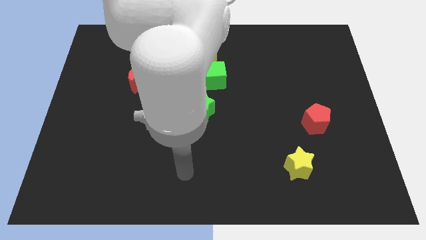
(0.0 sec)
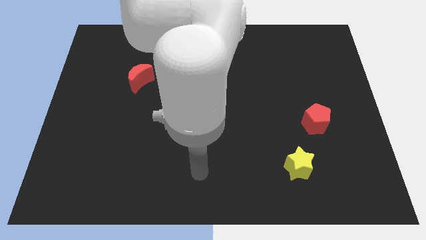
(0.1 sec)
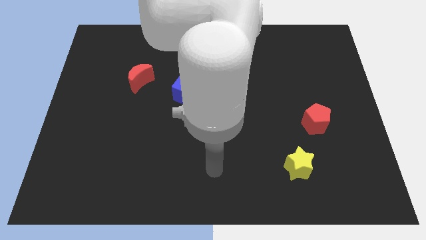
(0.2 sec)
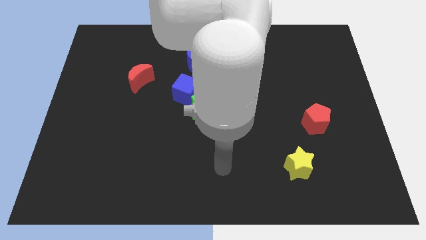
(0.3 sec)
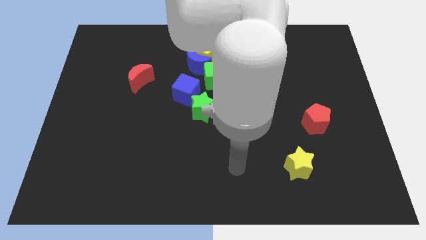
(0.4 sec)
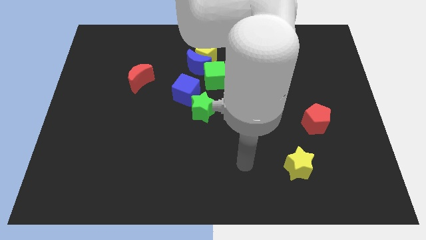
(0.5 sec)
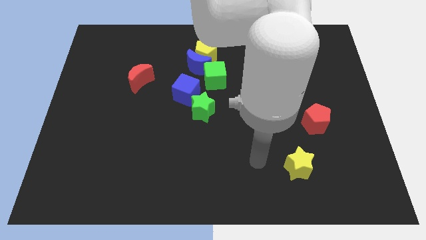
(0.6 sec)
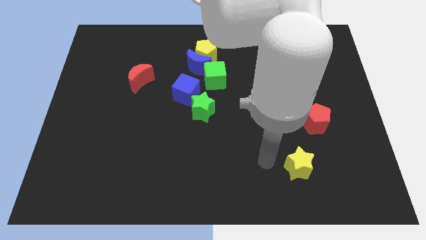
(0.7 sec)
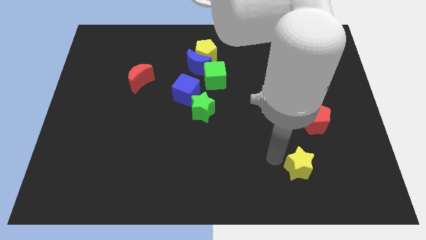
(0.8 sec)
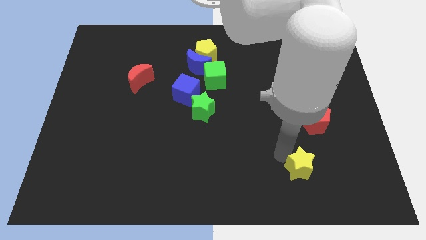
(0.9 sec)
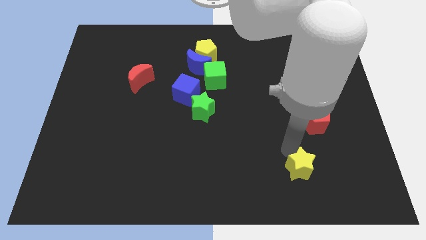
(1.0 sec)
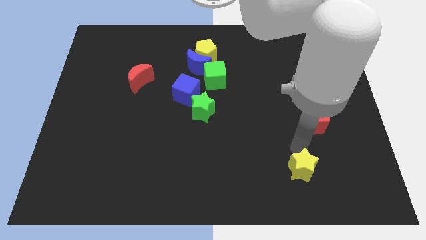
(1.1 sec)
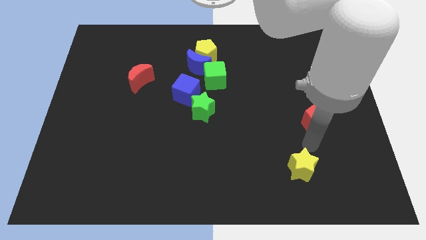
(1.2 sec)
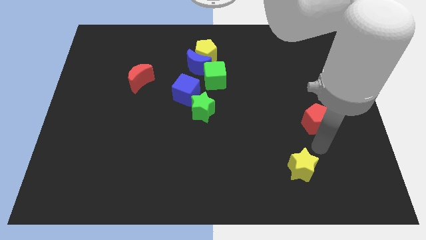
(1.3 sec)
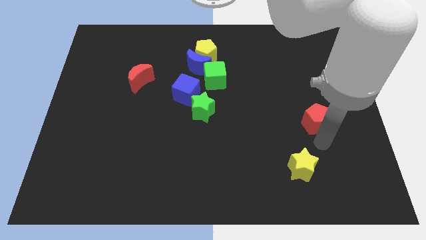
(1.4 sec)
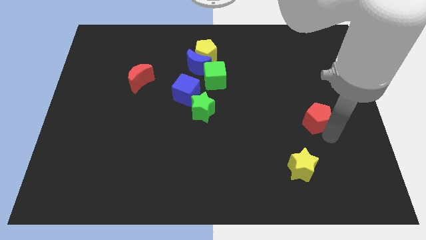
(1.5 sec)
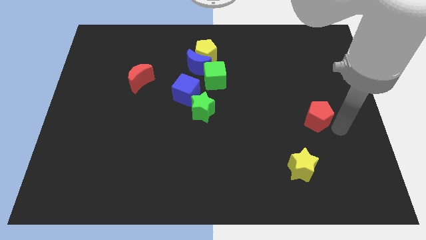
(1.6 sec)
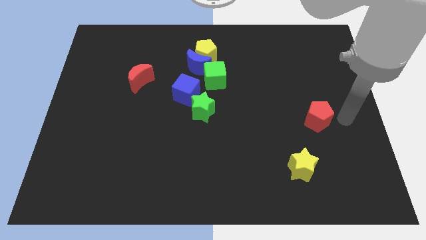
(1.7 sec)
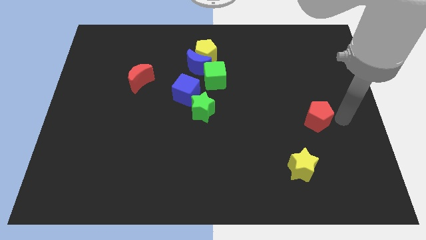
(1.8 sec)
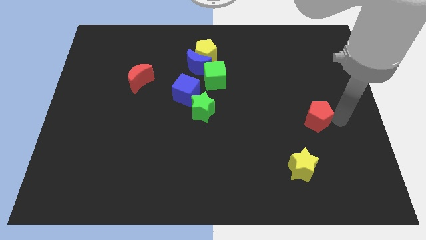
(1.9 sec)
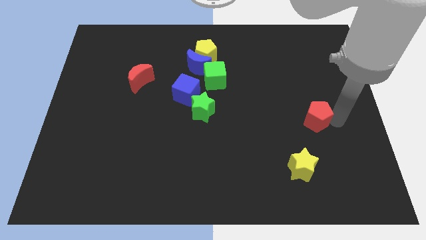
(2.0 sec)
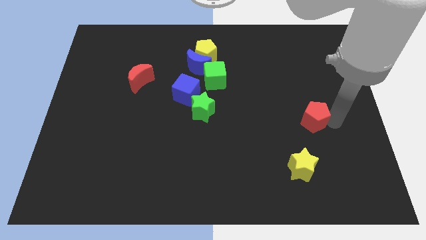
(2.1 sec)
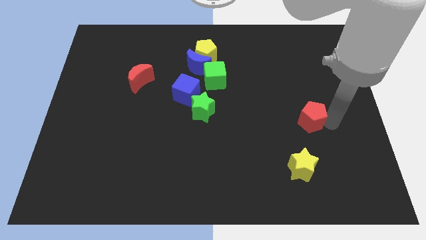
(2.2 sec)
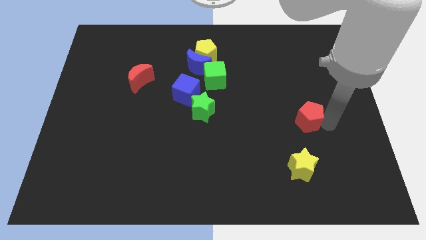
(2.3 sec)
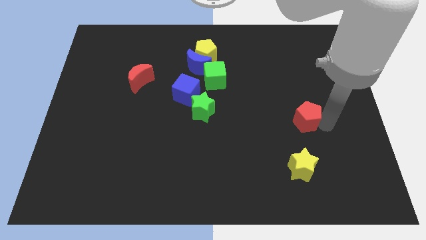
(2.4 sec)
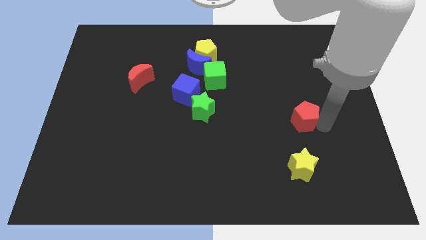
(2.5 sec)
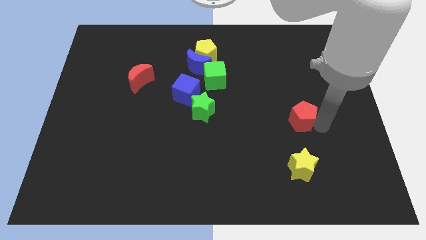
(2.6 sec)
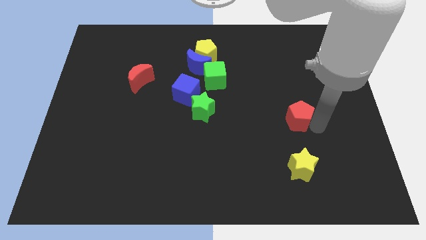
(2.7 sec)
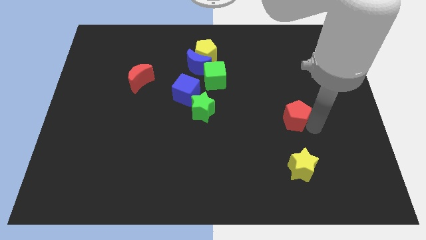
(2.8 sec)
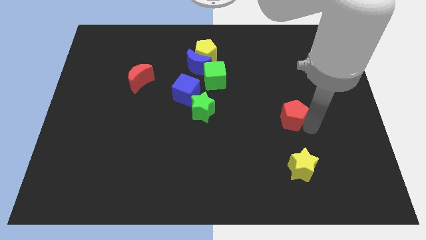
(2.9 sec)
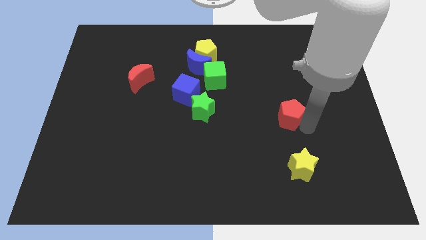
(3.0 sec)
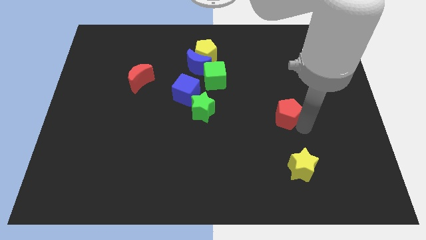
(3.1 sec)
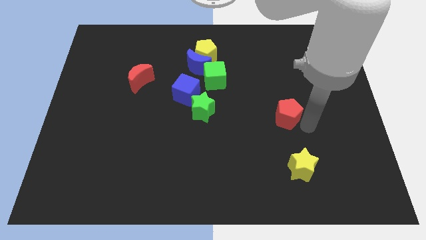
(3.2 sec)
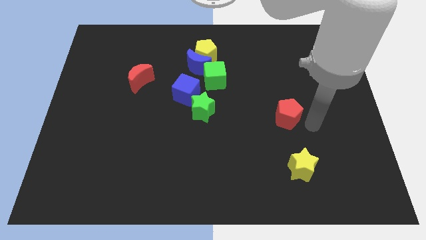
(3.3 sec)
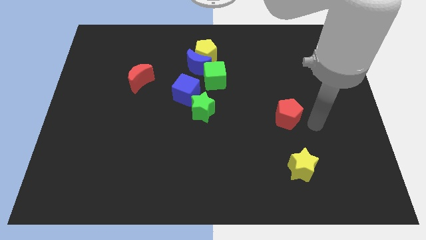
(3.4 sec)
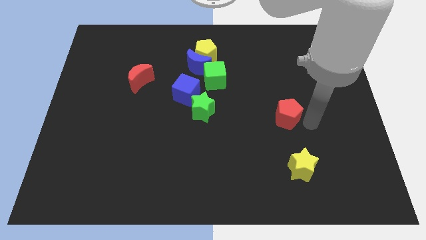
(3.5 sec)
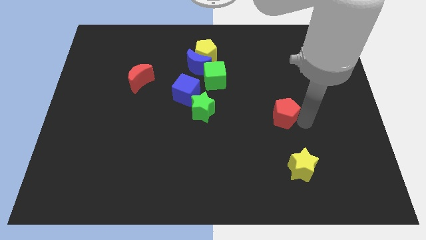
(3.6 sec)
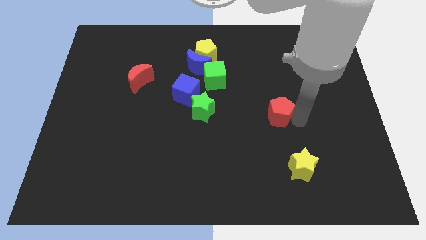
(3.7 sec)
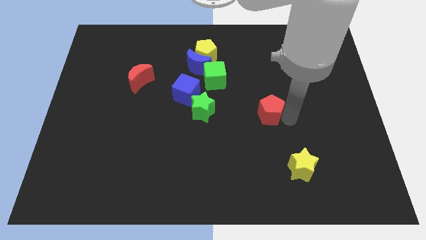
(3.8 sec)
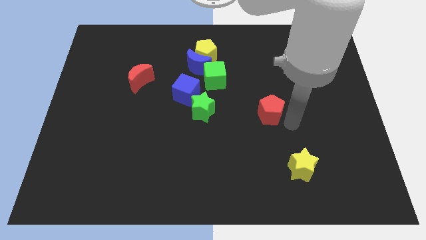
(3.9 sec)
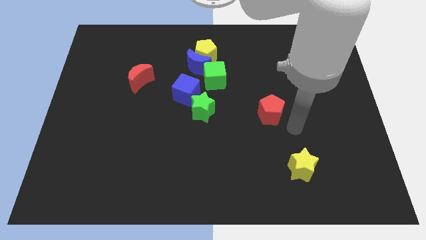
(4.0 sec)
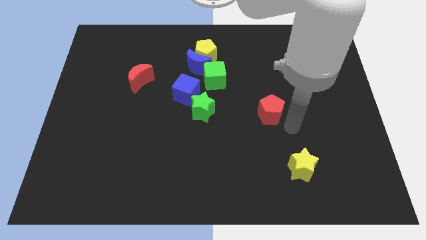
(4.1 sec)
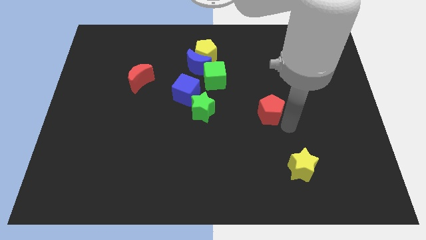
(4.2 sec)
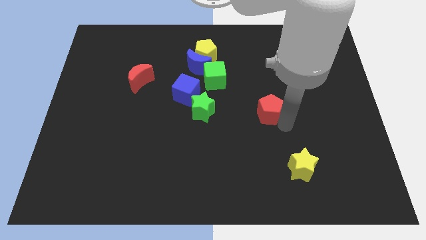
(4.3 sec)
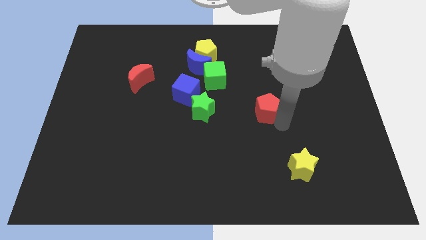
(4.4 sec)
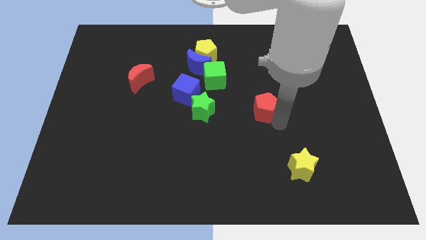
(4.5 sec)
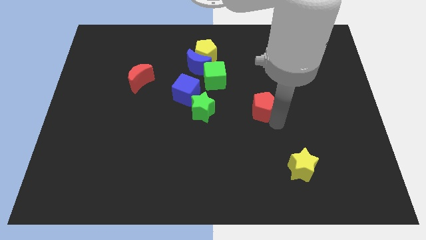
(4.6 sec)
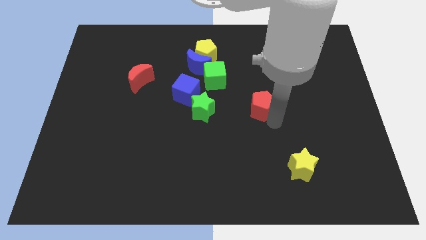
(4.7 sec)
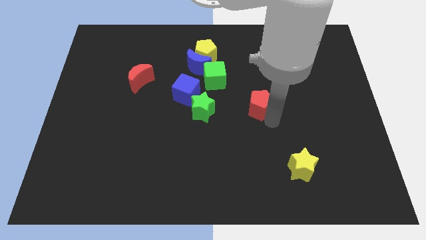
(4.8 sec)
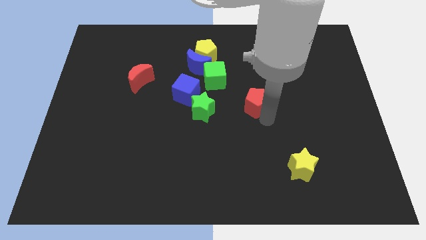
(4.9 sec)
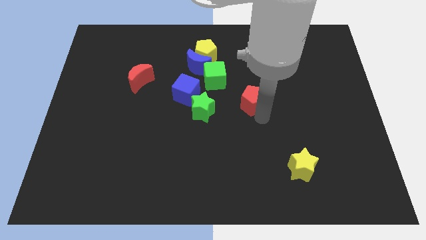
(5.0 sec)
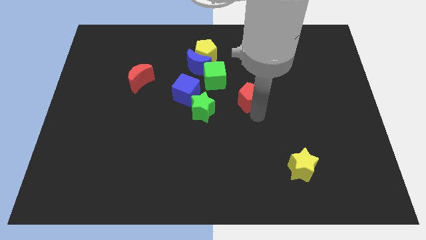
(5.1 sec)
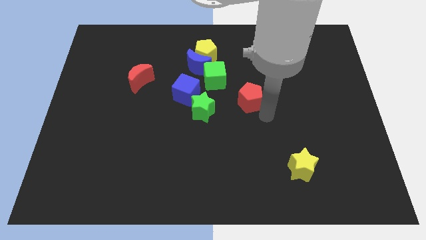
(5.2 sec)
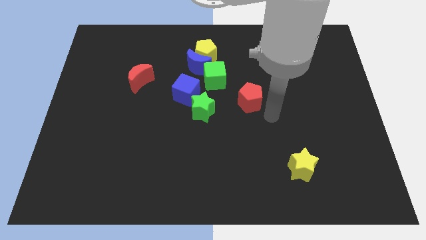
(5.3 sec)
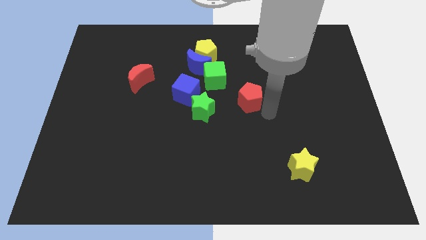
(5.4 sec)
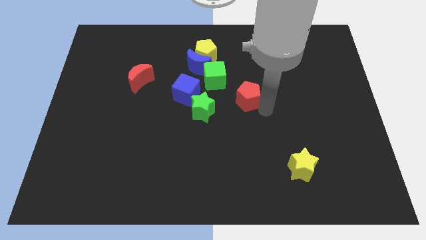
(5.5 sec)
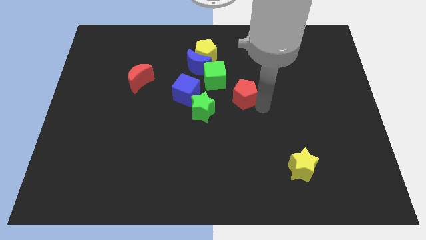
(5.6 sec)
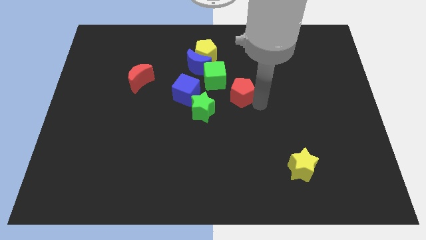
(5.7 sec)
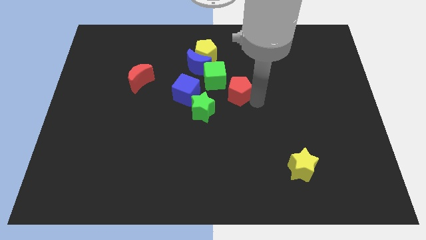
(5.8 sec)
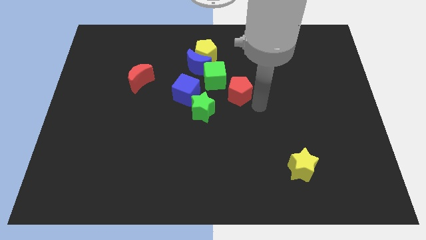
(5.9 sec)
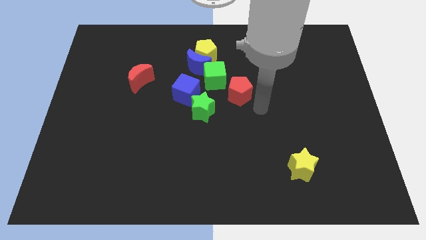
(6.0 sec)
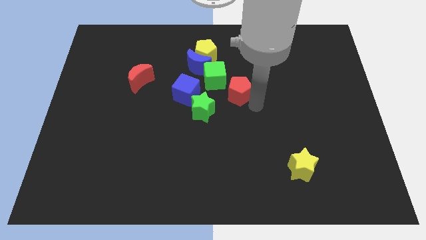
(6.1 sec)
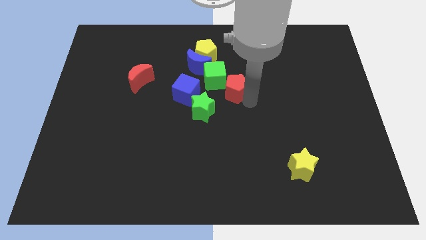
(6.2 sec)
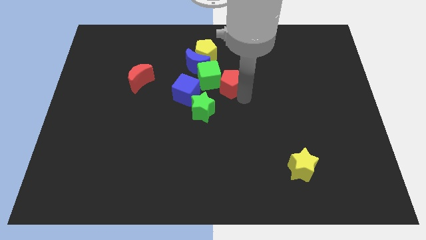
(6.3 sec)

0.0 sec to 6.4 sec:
push the red pentagon towards the green cube

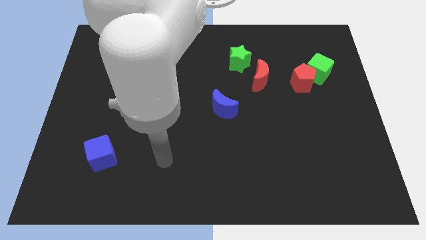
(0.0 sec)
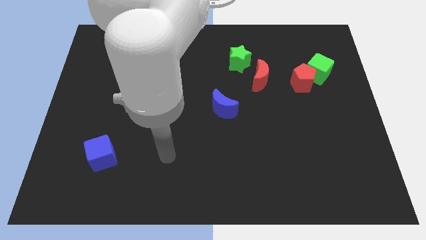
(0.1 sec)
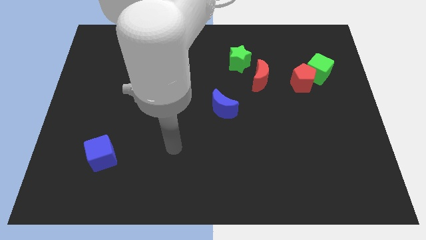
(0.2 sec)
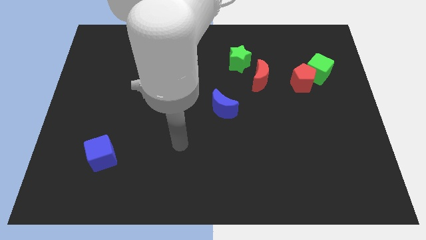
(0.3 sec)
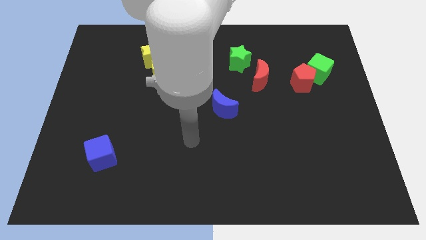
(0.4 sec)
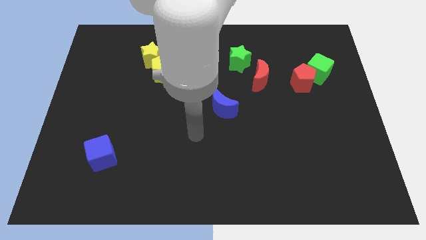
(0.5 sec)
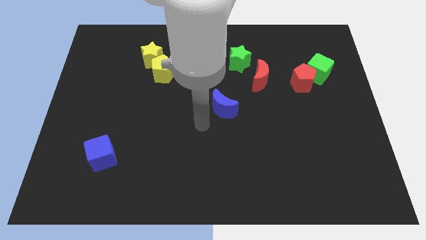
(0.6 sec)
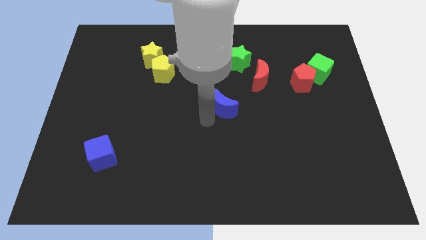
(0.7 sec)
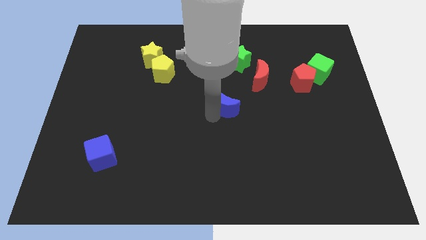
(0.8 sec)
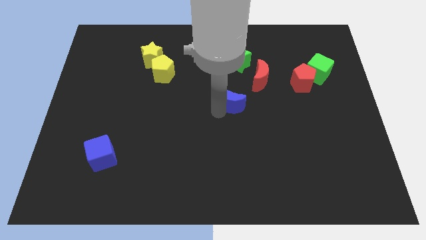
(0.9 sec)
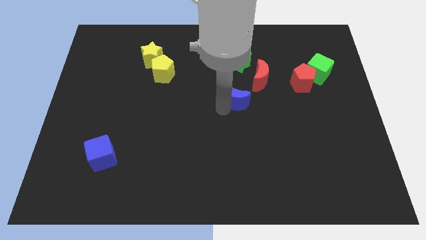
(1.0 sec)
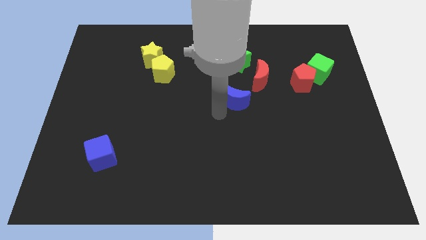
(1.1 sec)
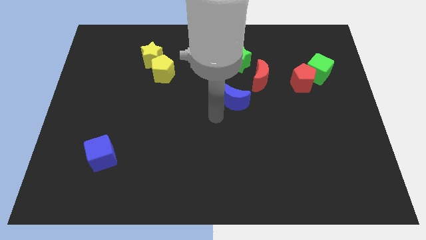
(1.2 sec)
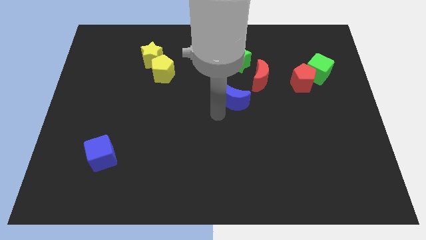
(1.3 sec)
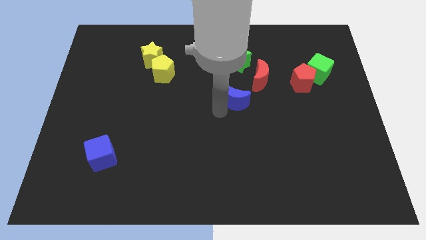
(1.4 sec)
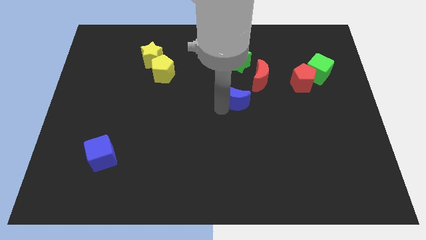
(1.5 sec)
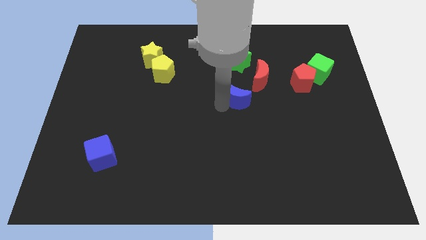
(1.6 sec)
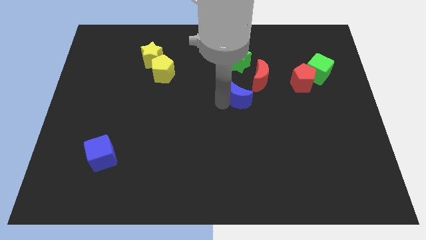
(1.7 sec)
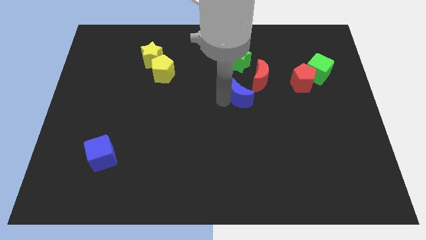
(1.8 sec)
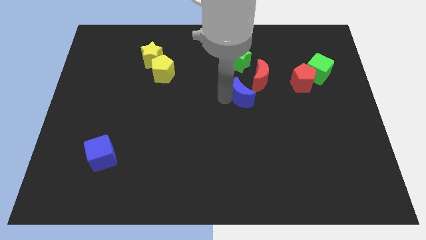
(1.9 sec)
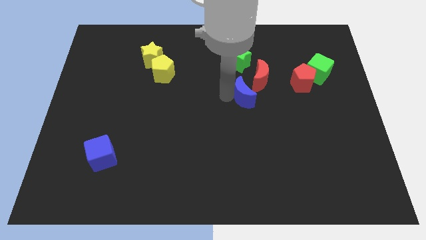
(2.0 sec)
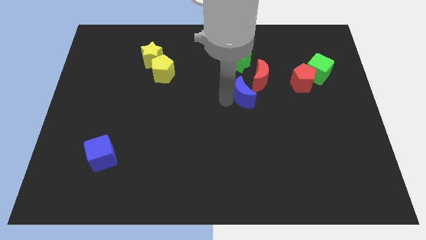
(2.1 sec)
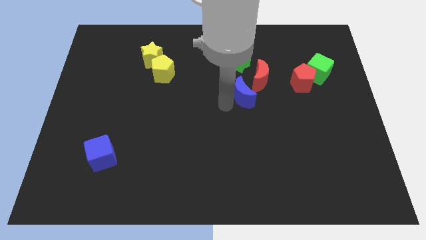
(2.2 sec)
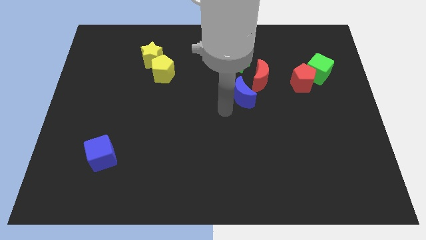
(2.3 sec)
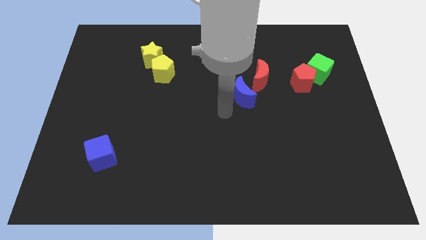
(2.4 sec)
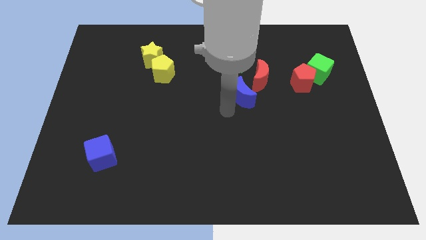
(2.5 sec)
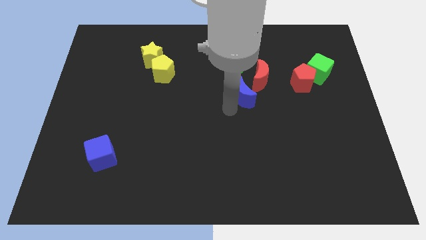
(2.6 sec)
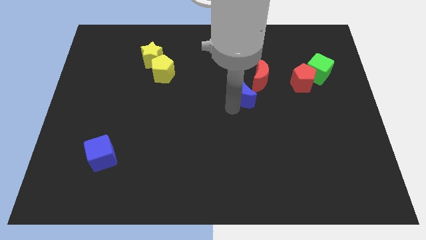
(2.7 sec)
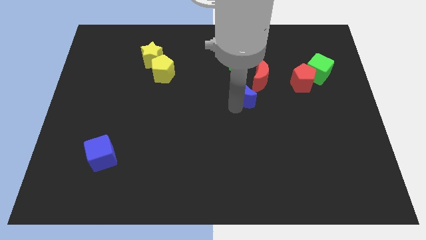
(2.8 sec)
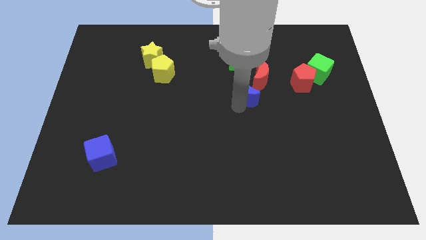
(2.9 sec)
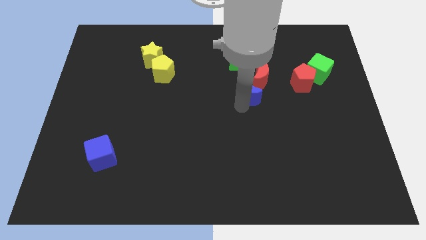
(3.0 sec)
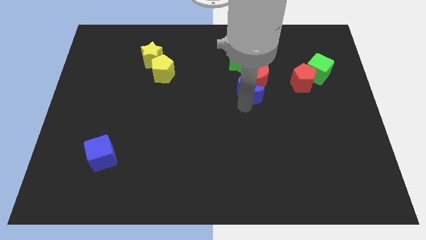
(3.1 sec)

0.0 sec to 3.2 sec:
slide the blue moon close to the red moon
